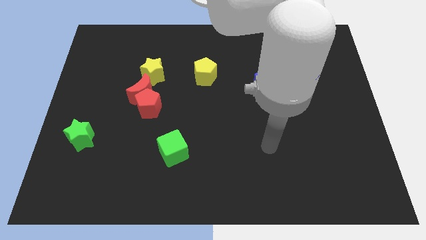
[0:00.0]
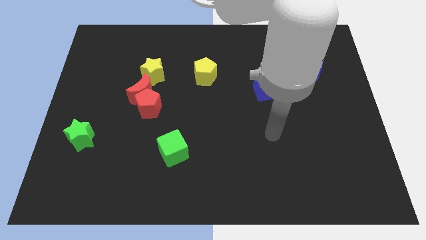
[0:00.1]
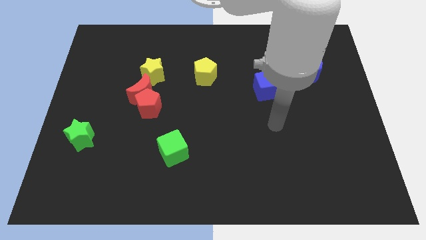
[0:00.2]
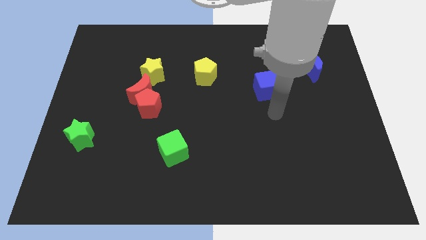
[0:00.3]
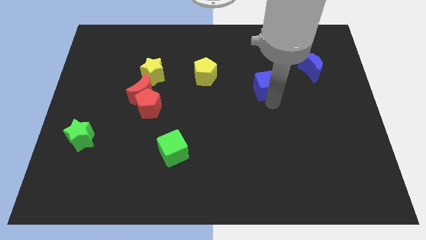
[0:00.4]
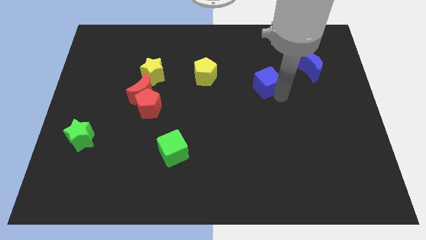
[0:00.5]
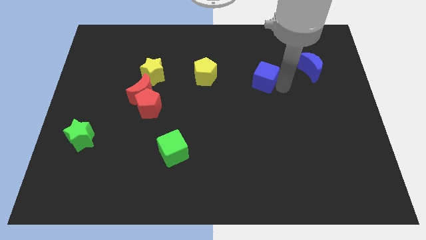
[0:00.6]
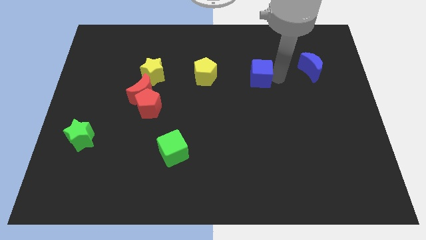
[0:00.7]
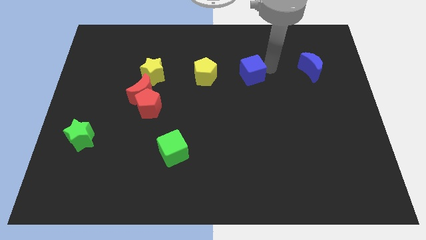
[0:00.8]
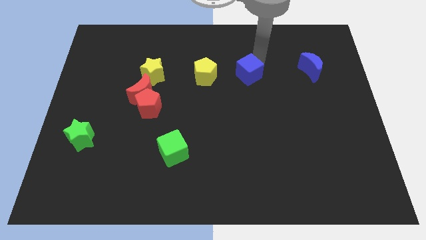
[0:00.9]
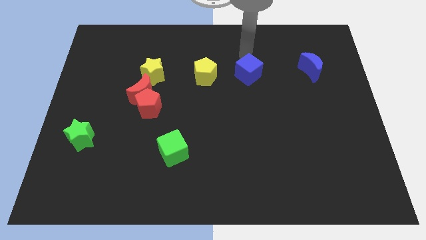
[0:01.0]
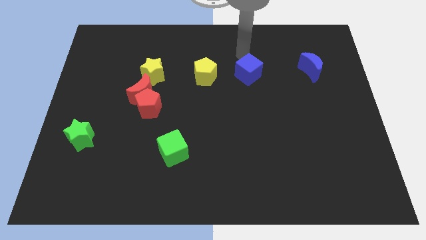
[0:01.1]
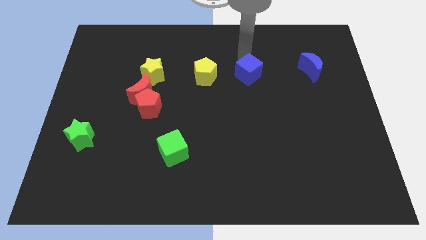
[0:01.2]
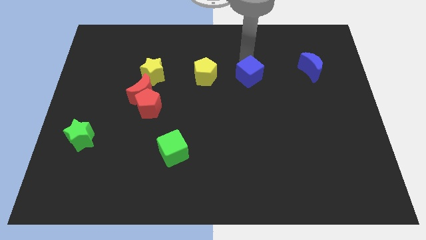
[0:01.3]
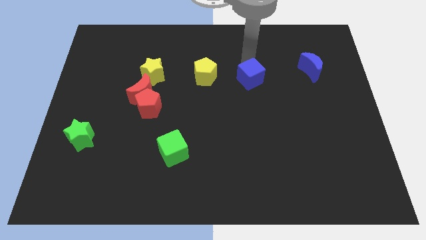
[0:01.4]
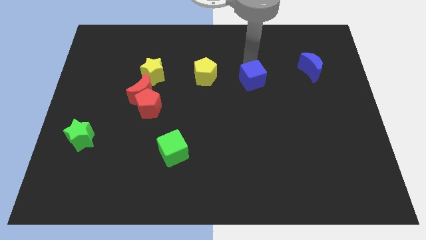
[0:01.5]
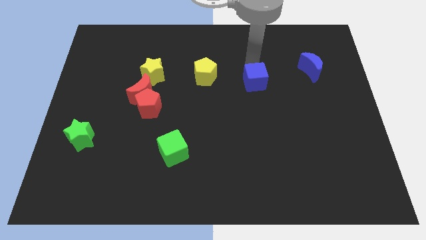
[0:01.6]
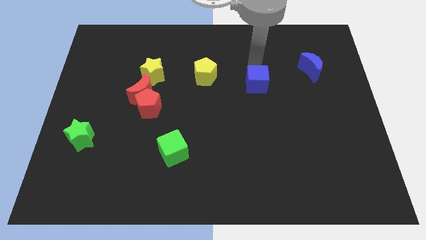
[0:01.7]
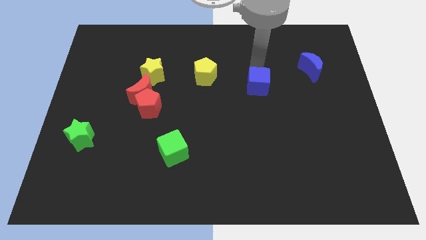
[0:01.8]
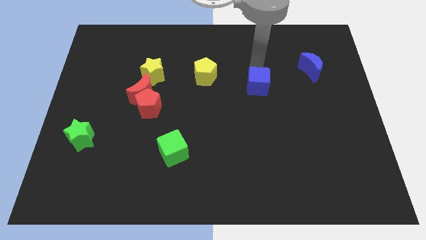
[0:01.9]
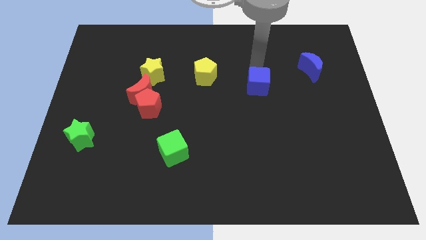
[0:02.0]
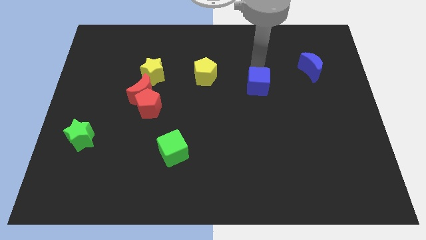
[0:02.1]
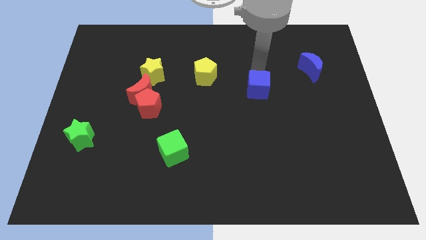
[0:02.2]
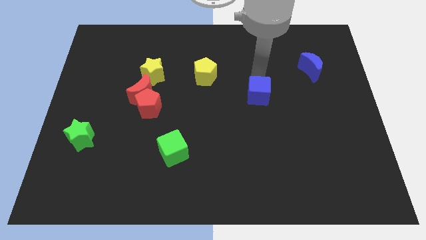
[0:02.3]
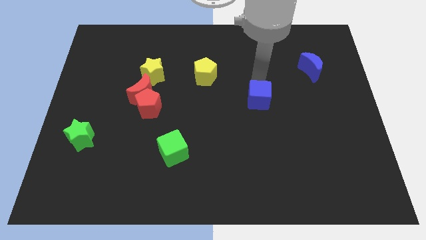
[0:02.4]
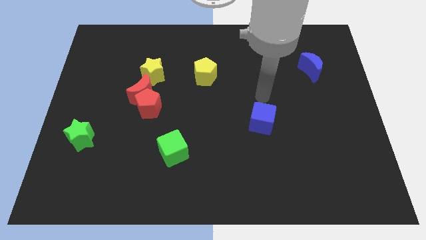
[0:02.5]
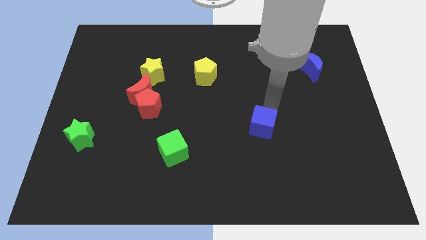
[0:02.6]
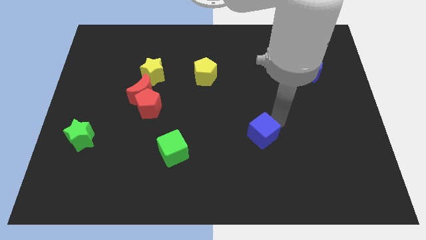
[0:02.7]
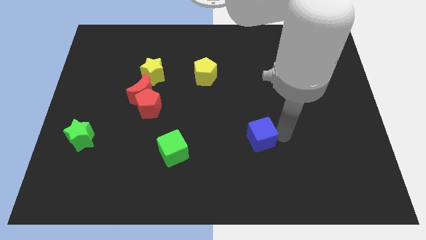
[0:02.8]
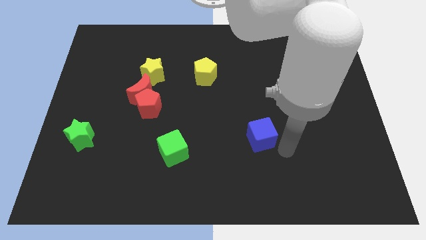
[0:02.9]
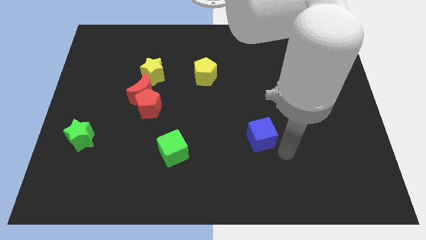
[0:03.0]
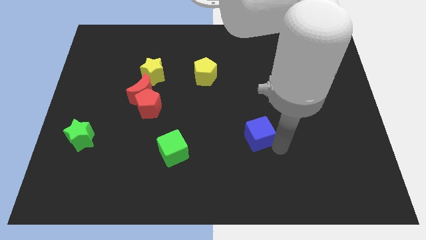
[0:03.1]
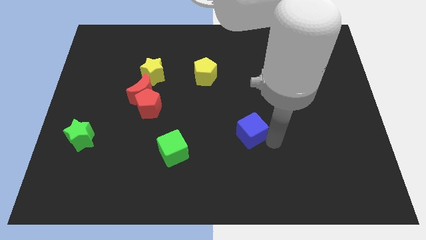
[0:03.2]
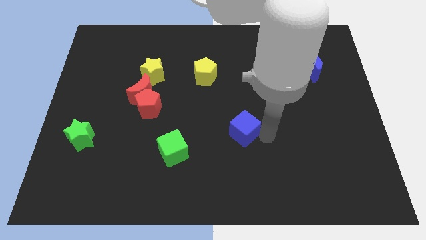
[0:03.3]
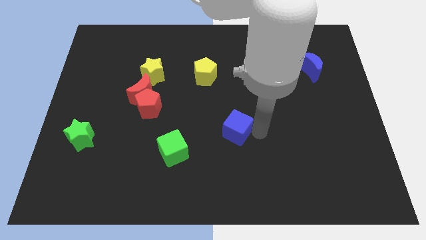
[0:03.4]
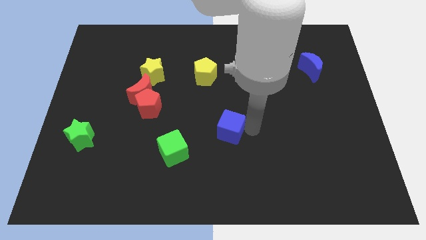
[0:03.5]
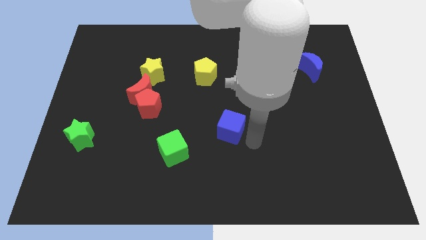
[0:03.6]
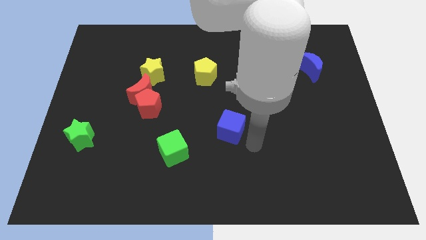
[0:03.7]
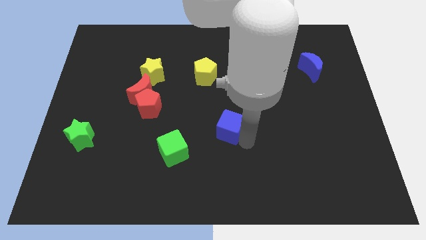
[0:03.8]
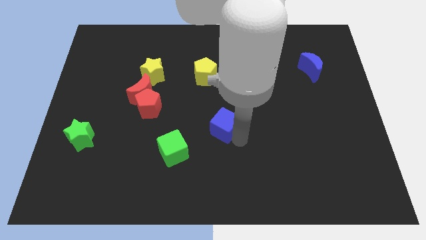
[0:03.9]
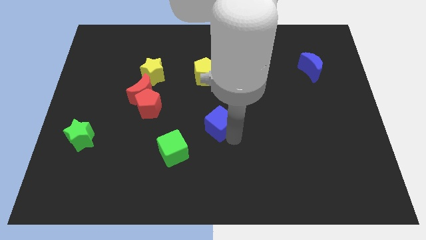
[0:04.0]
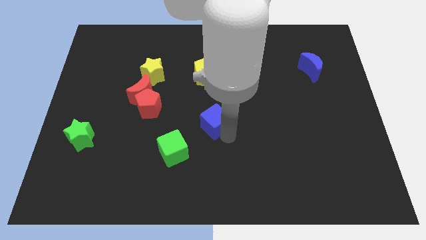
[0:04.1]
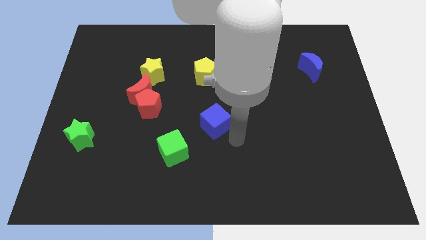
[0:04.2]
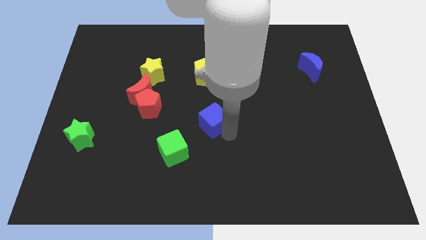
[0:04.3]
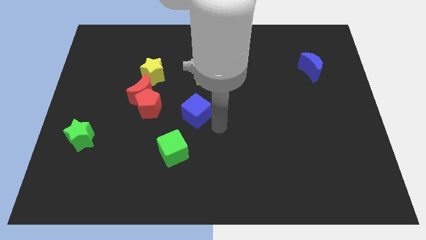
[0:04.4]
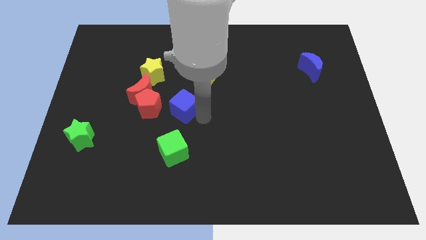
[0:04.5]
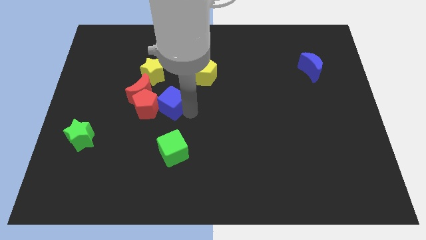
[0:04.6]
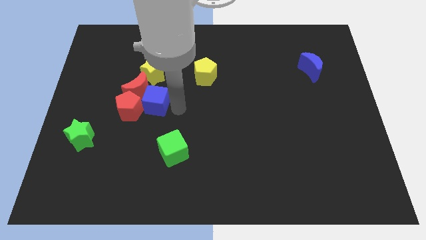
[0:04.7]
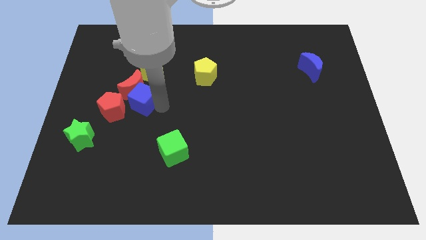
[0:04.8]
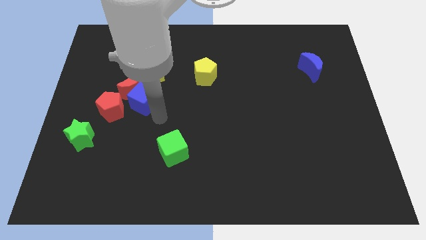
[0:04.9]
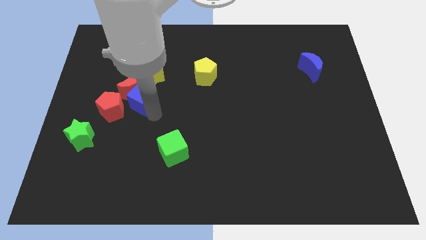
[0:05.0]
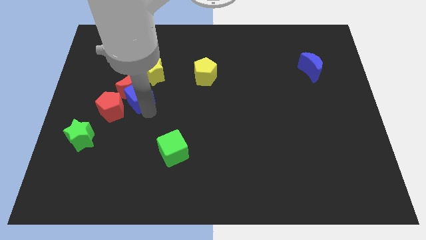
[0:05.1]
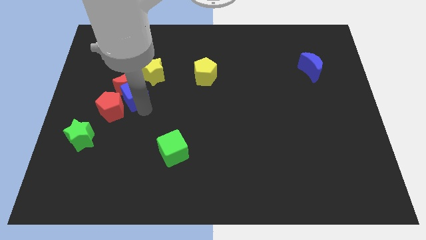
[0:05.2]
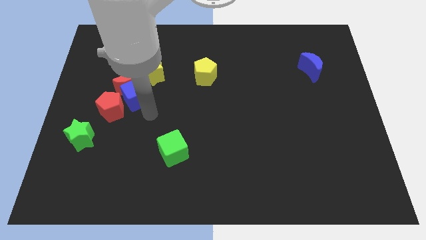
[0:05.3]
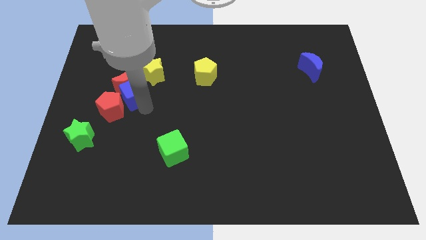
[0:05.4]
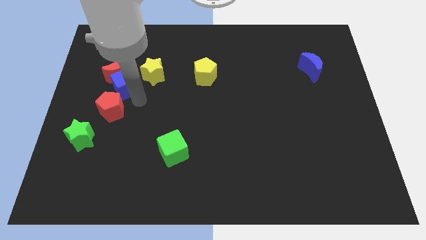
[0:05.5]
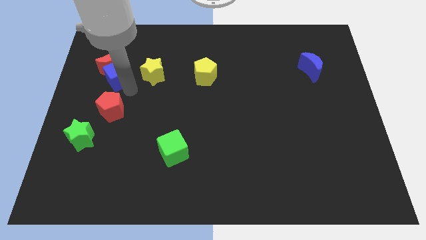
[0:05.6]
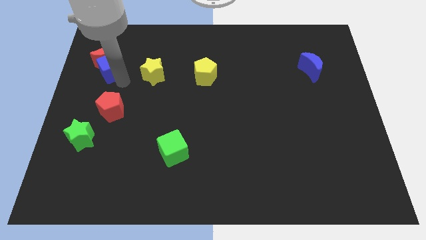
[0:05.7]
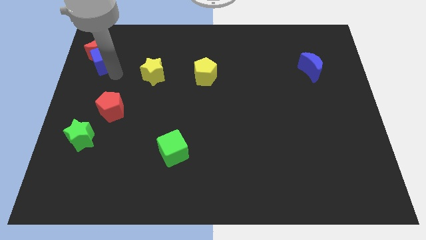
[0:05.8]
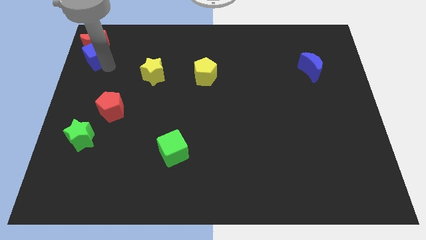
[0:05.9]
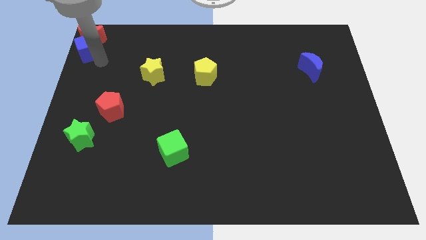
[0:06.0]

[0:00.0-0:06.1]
slide the blue cube to the top left of the board
